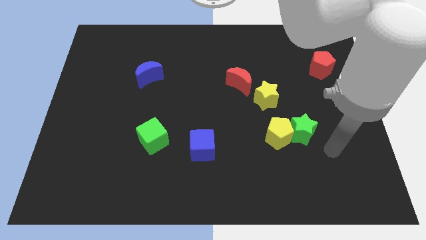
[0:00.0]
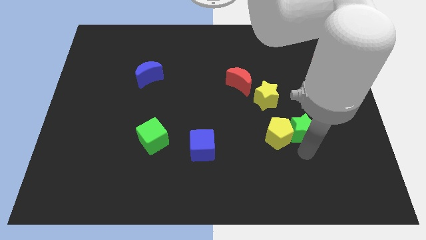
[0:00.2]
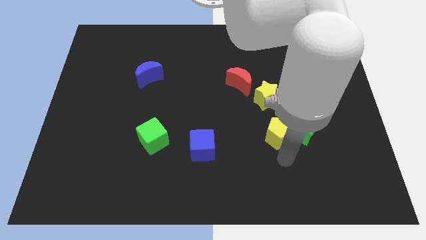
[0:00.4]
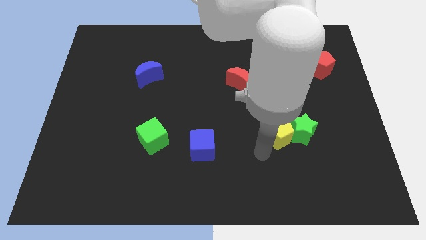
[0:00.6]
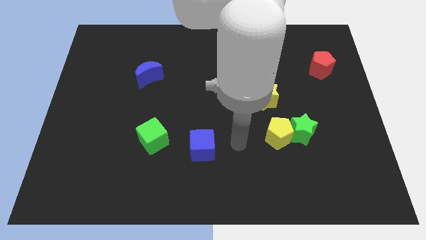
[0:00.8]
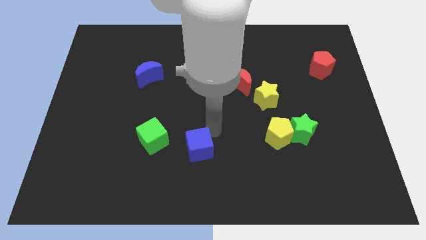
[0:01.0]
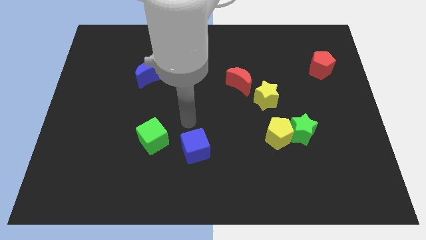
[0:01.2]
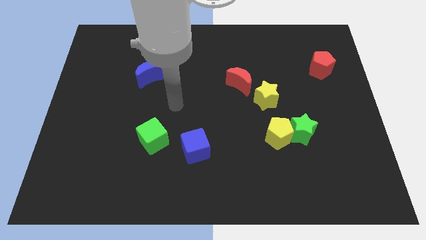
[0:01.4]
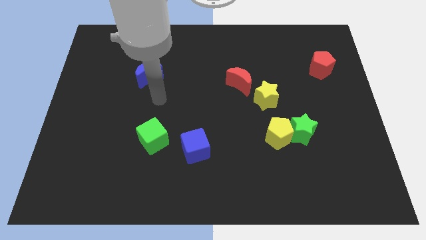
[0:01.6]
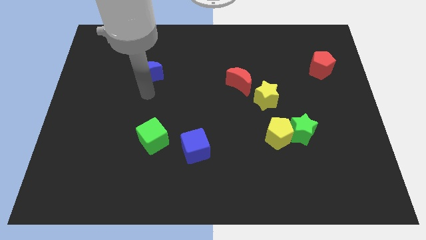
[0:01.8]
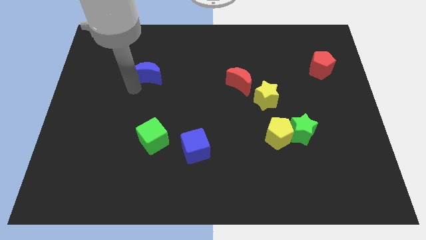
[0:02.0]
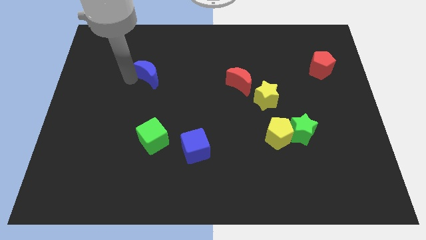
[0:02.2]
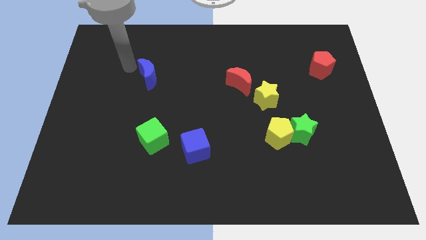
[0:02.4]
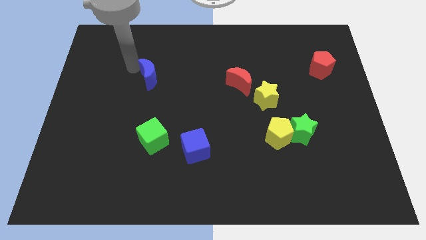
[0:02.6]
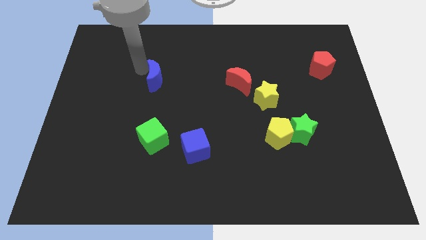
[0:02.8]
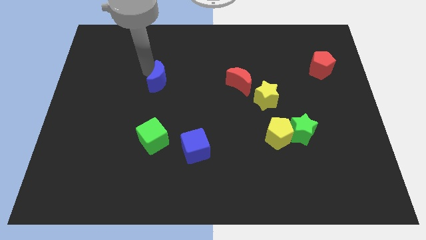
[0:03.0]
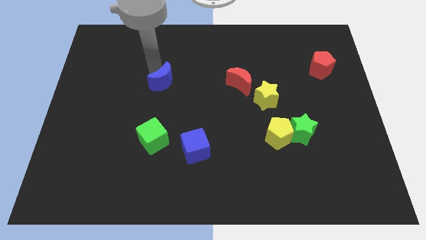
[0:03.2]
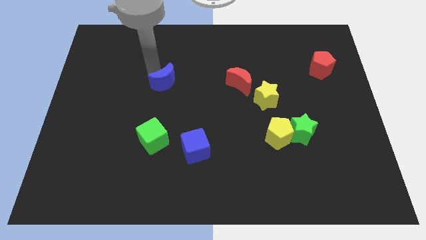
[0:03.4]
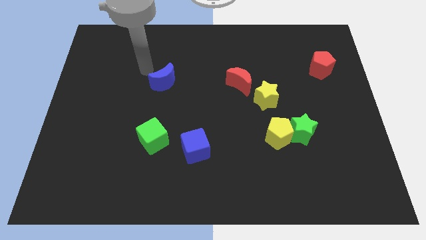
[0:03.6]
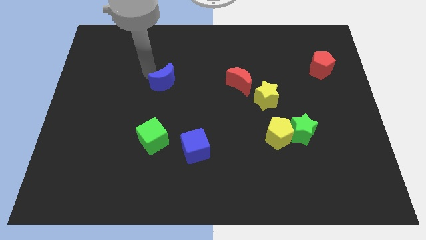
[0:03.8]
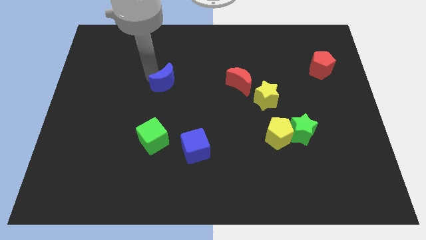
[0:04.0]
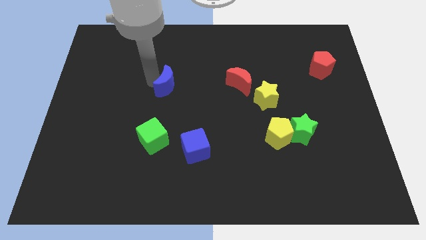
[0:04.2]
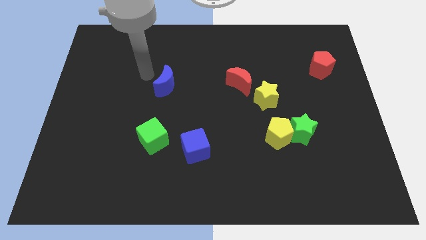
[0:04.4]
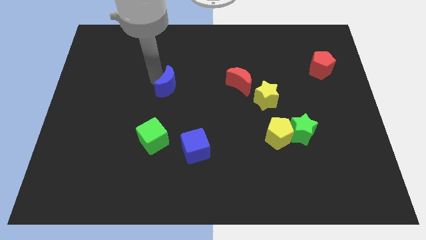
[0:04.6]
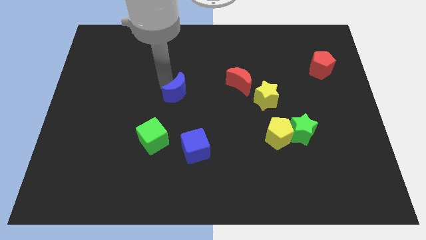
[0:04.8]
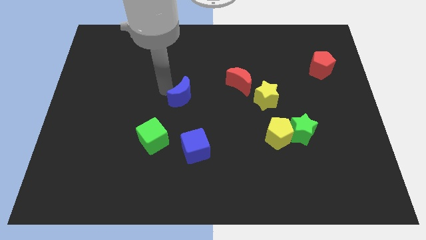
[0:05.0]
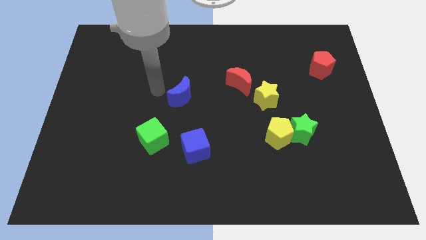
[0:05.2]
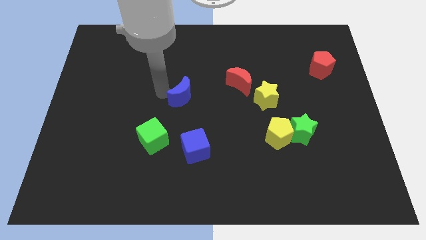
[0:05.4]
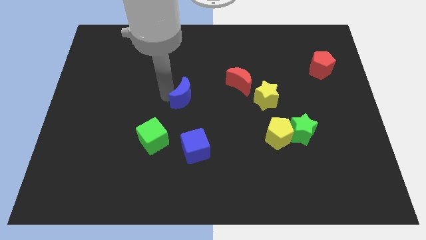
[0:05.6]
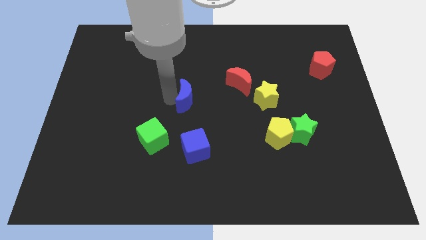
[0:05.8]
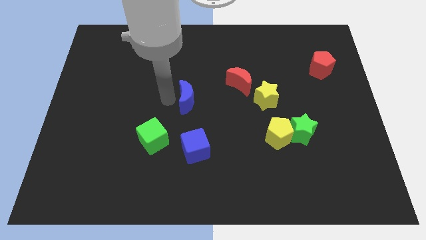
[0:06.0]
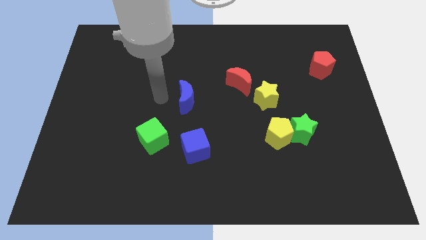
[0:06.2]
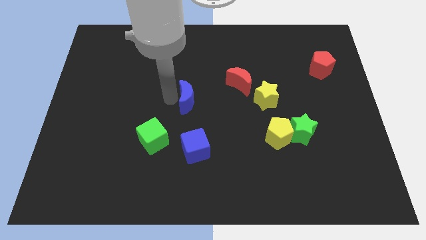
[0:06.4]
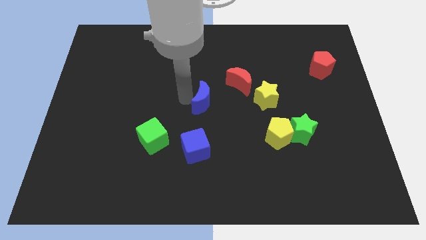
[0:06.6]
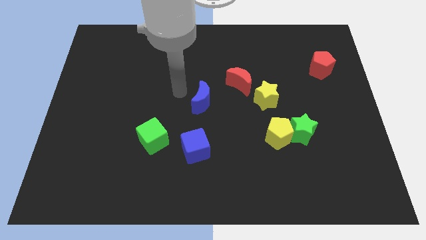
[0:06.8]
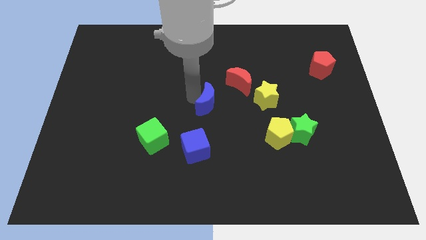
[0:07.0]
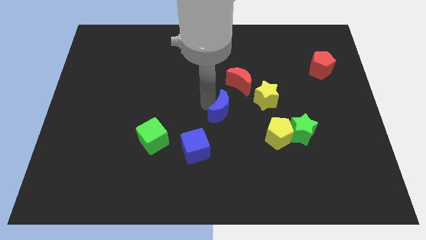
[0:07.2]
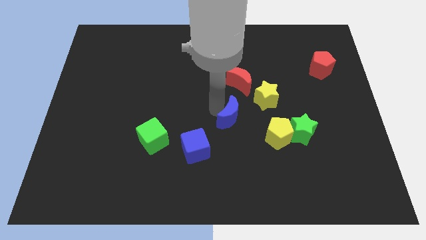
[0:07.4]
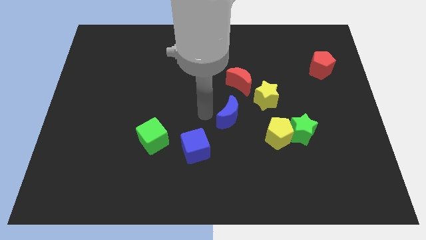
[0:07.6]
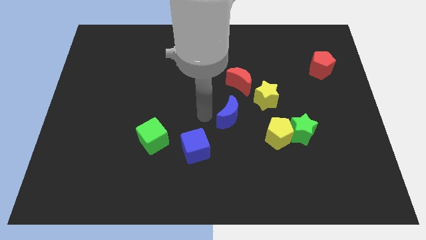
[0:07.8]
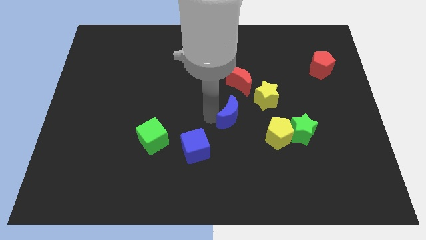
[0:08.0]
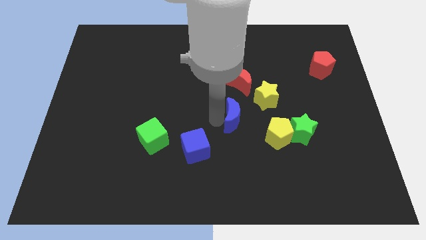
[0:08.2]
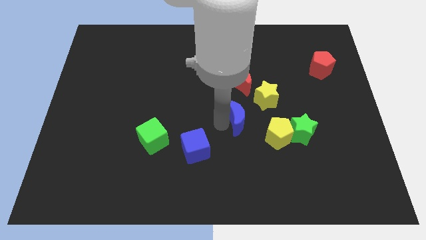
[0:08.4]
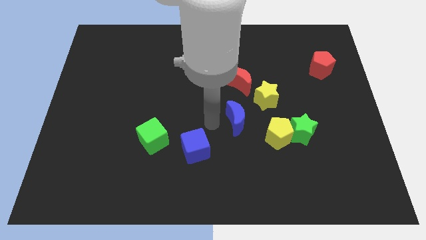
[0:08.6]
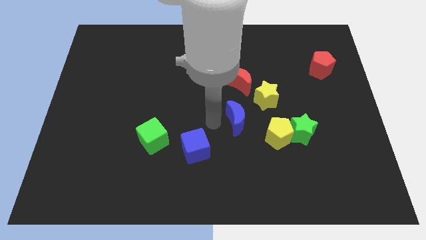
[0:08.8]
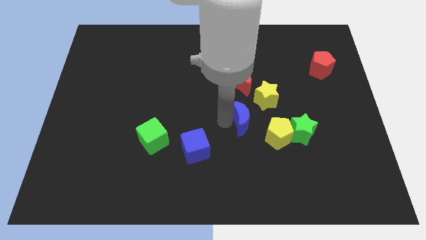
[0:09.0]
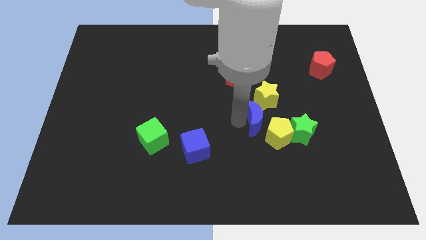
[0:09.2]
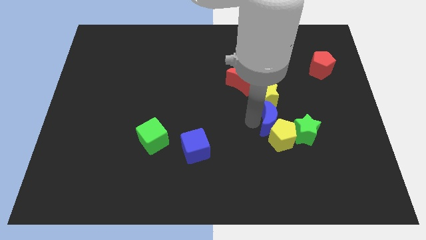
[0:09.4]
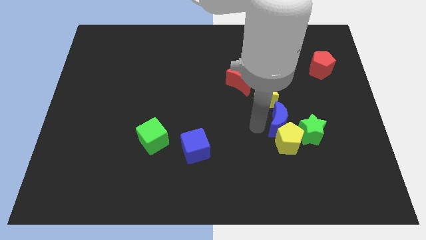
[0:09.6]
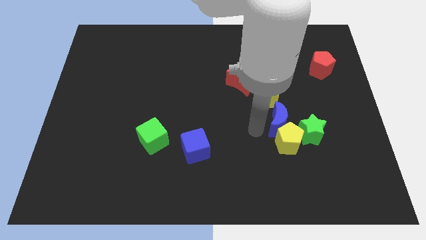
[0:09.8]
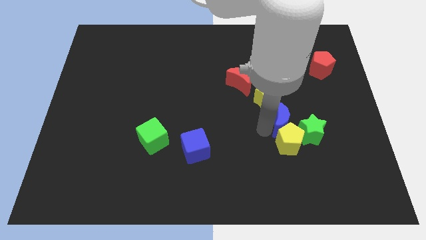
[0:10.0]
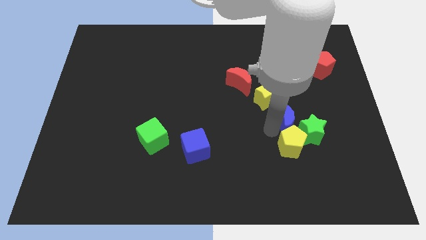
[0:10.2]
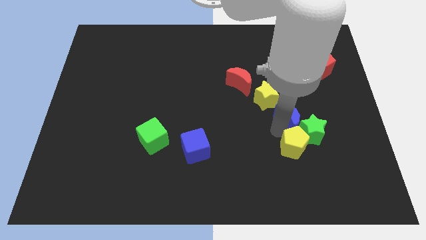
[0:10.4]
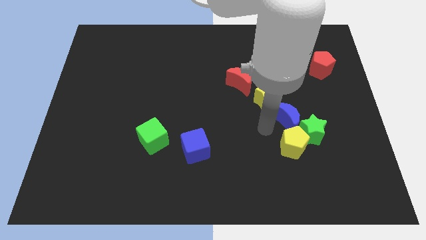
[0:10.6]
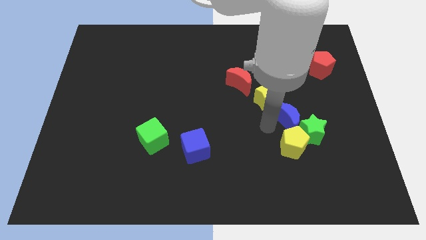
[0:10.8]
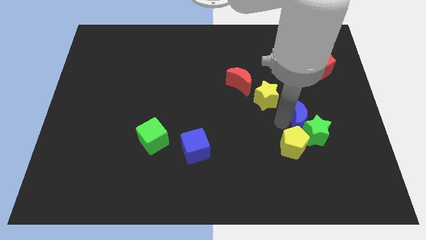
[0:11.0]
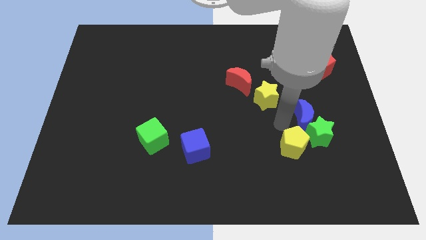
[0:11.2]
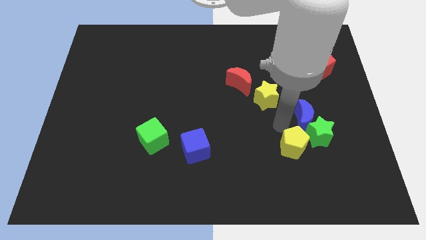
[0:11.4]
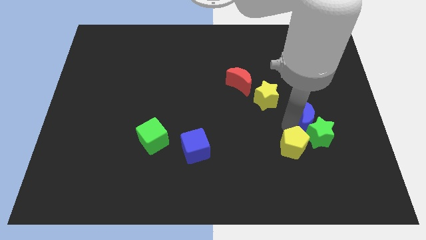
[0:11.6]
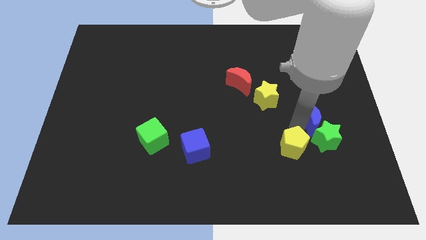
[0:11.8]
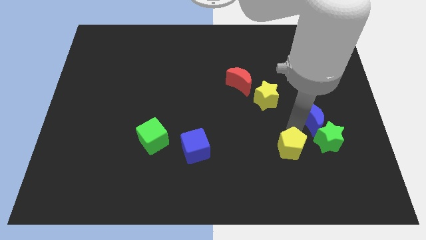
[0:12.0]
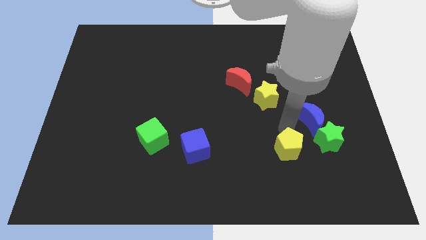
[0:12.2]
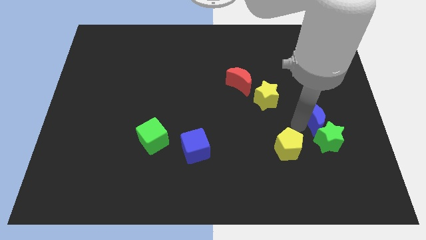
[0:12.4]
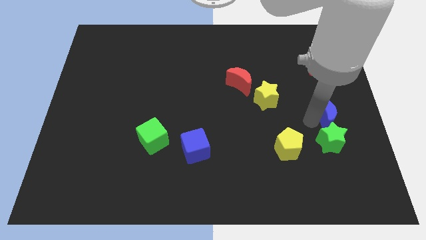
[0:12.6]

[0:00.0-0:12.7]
push the blue moon to the right side

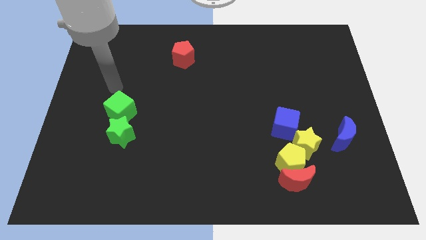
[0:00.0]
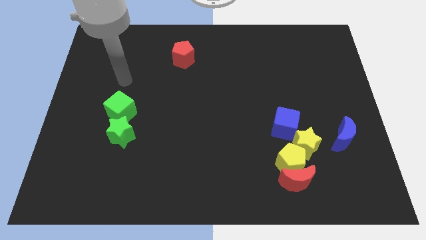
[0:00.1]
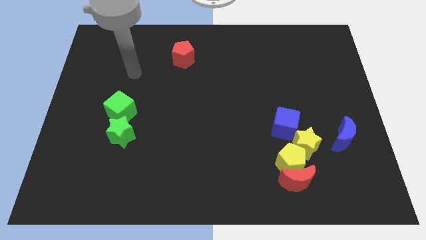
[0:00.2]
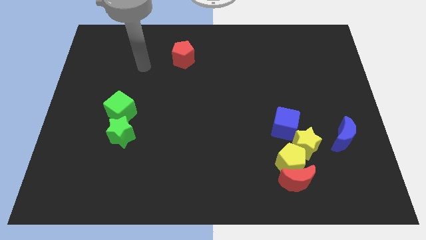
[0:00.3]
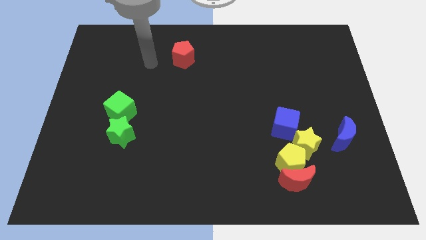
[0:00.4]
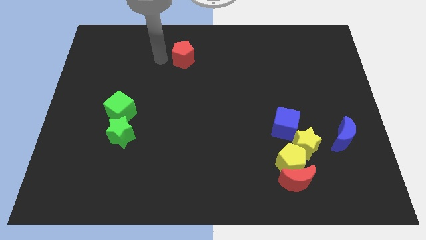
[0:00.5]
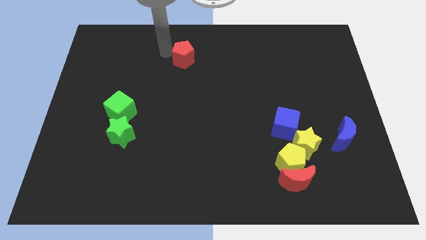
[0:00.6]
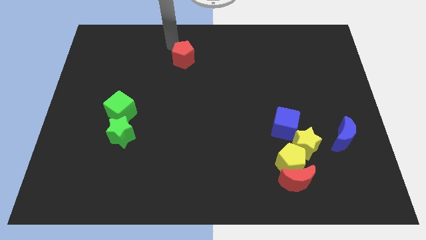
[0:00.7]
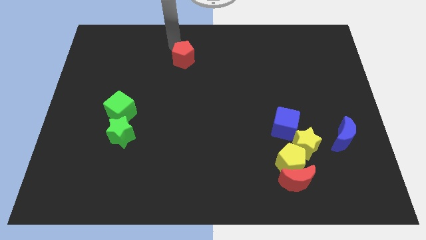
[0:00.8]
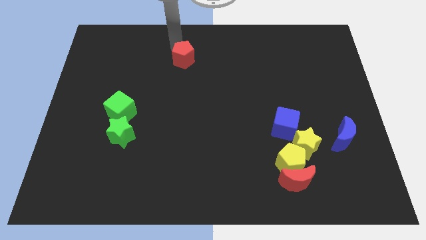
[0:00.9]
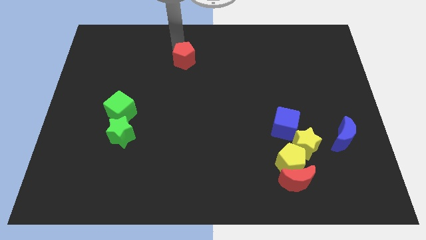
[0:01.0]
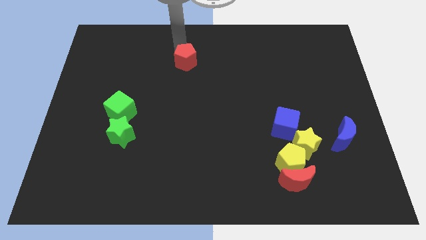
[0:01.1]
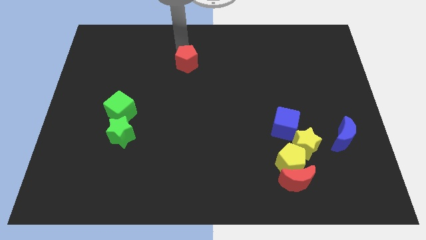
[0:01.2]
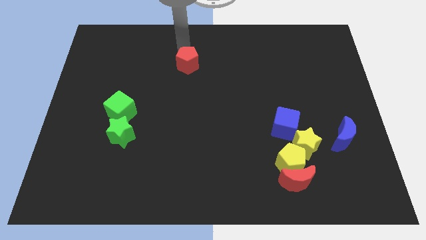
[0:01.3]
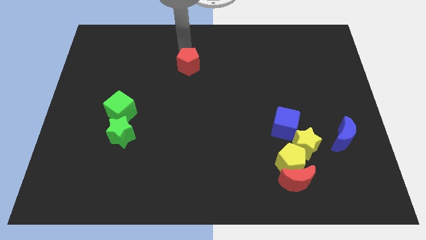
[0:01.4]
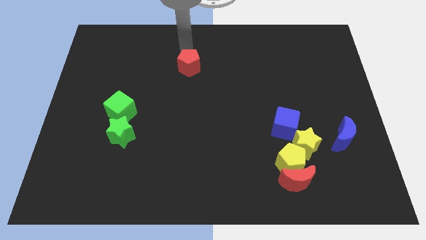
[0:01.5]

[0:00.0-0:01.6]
slide the red pentagon to the center of the board
